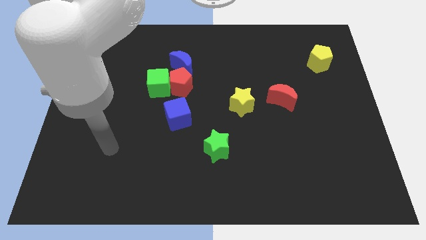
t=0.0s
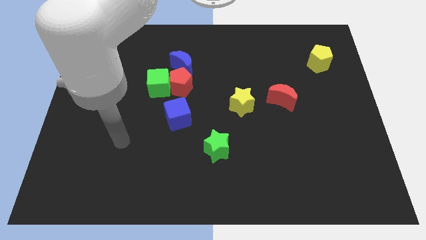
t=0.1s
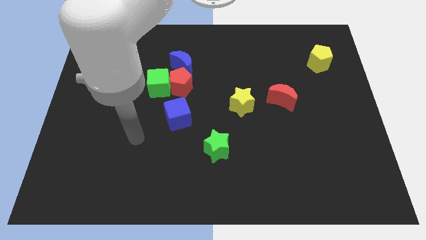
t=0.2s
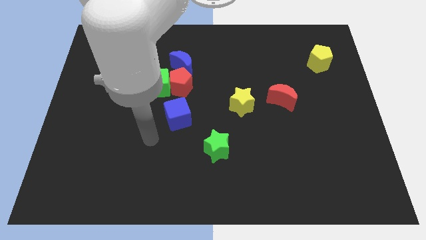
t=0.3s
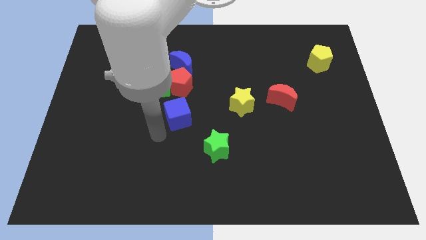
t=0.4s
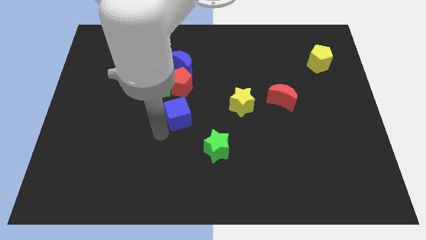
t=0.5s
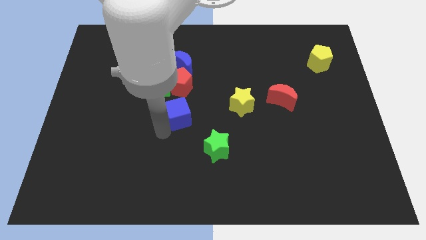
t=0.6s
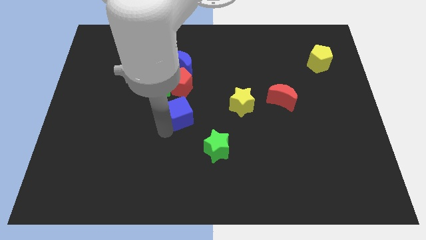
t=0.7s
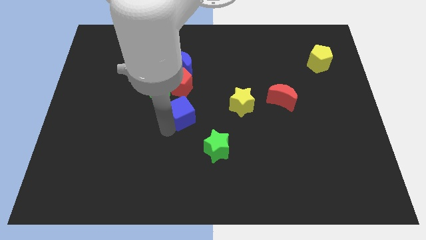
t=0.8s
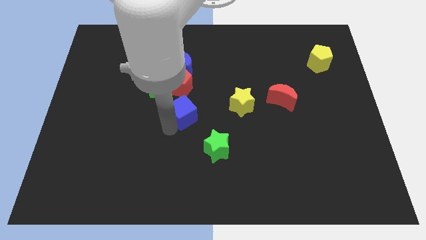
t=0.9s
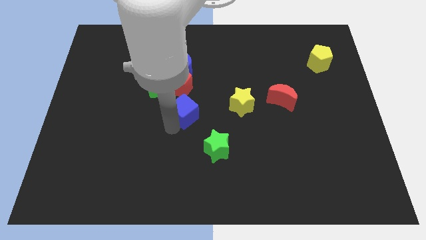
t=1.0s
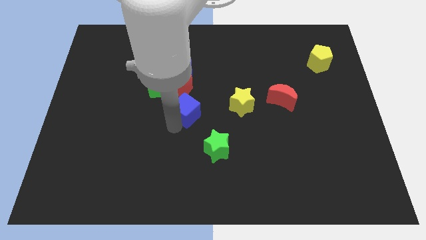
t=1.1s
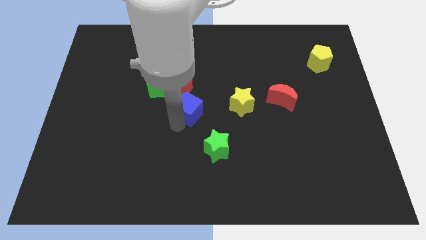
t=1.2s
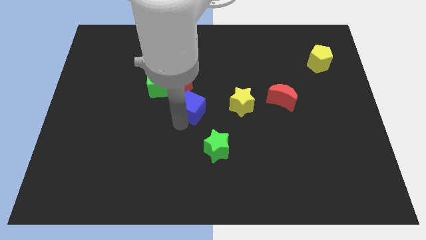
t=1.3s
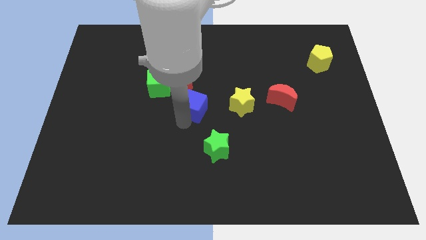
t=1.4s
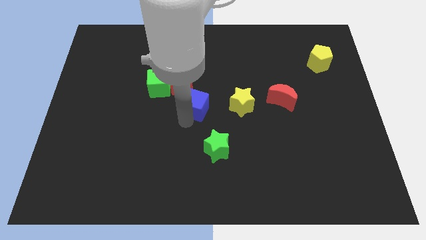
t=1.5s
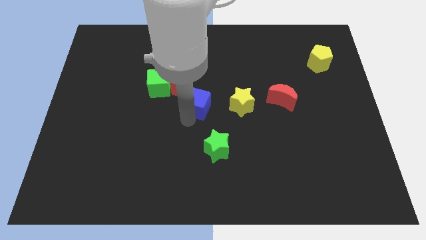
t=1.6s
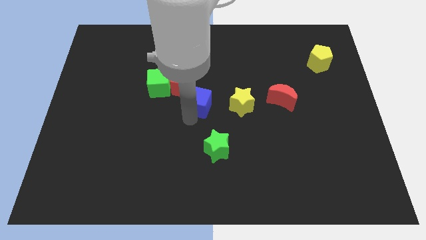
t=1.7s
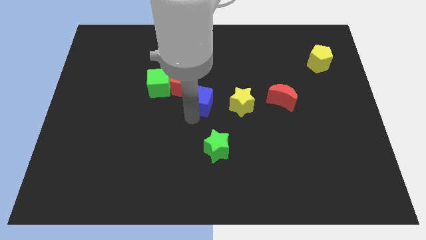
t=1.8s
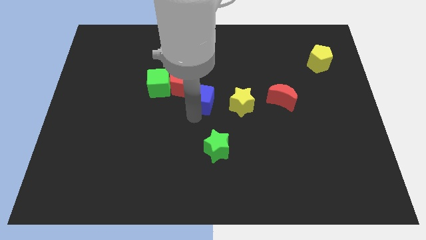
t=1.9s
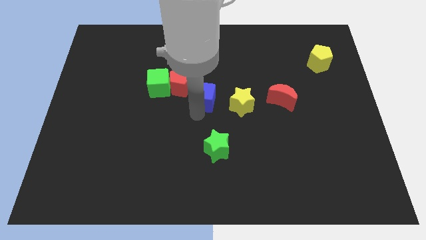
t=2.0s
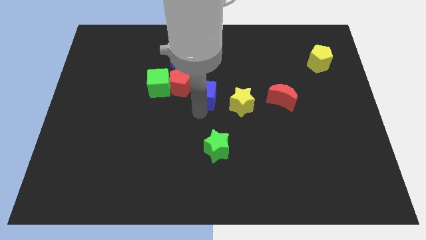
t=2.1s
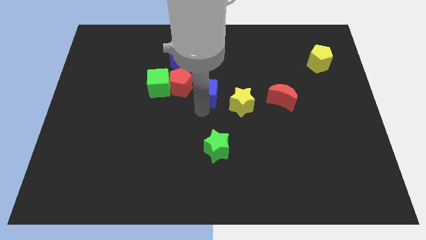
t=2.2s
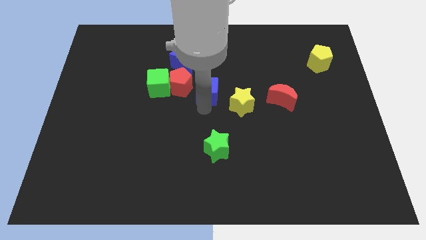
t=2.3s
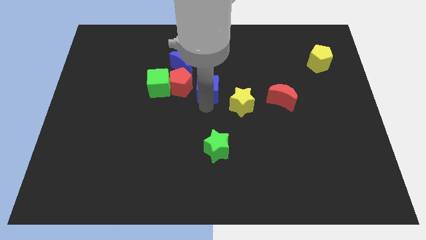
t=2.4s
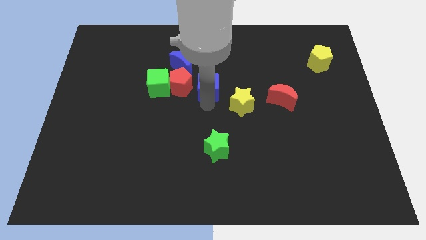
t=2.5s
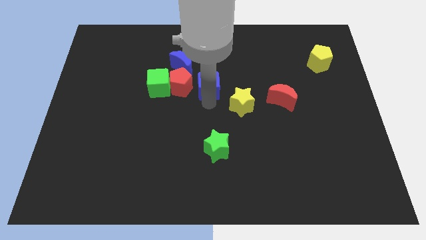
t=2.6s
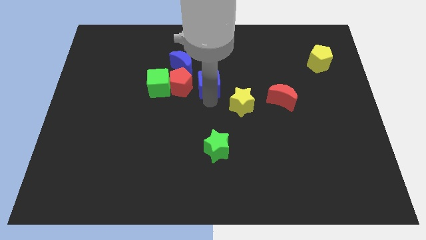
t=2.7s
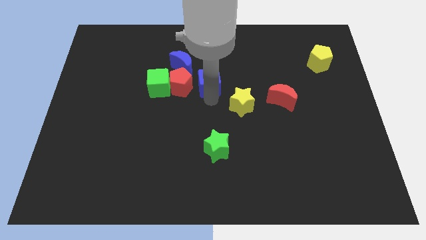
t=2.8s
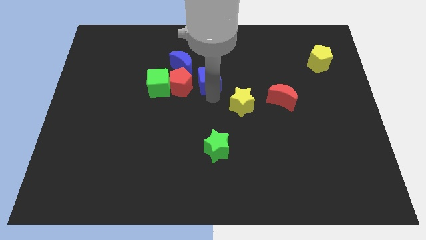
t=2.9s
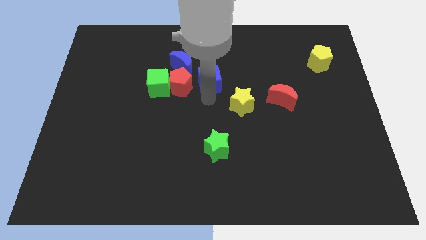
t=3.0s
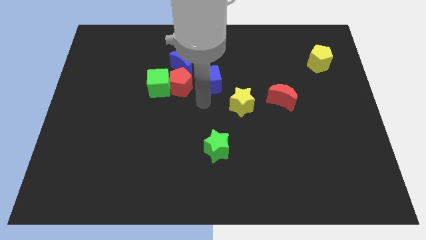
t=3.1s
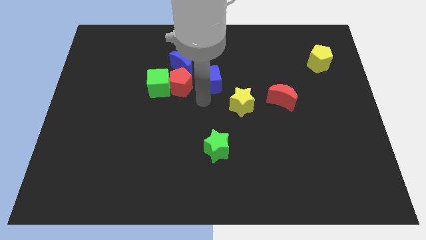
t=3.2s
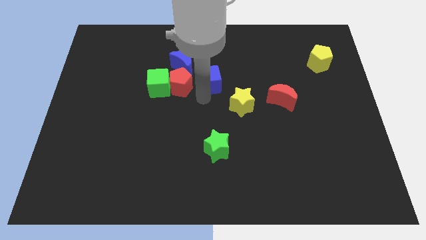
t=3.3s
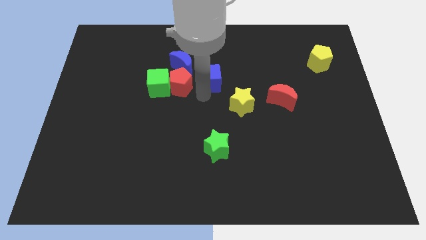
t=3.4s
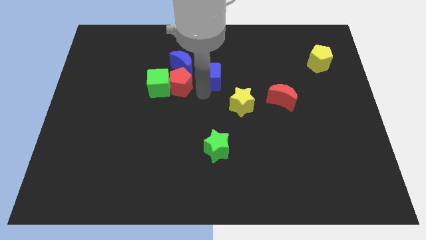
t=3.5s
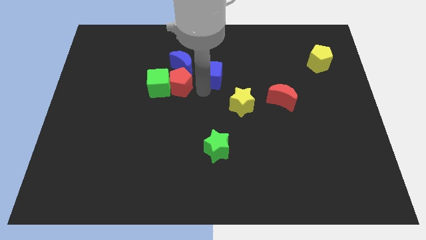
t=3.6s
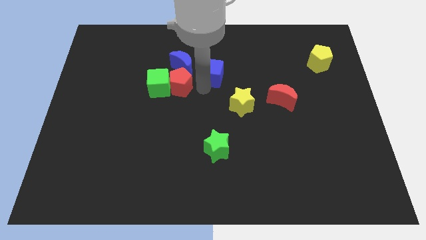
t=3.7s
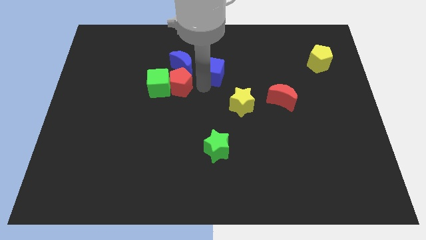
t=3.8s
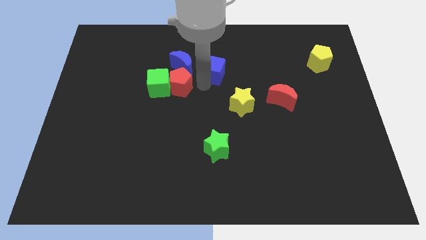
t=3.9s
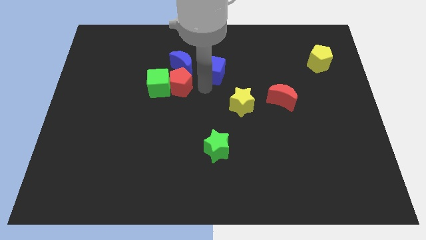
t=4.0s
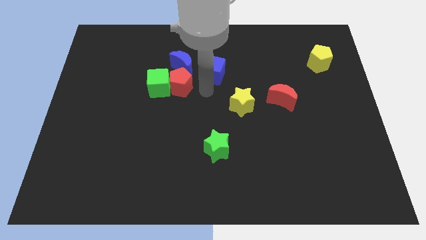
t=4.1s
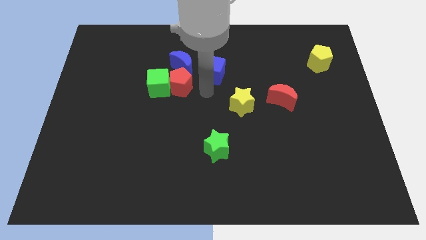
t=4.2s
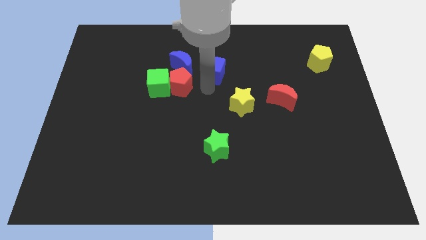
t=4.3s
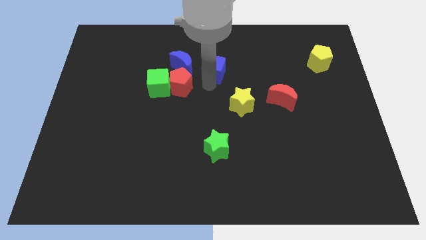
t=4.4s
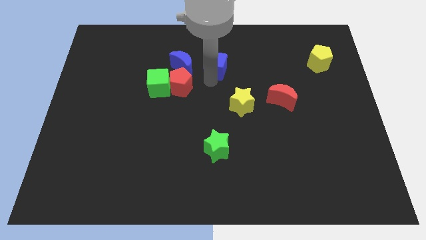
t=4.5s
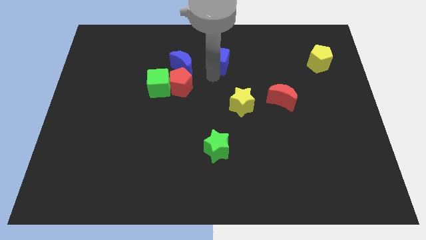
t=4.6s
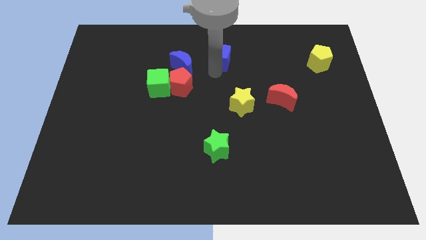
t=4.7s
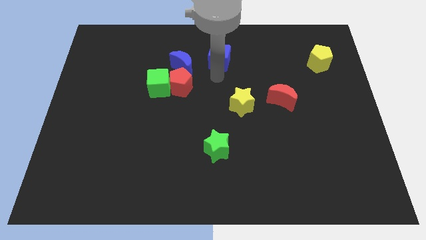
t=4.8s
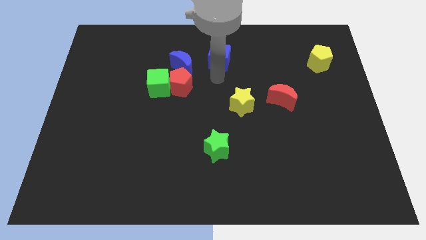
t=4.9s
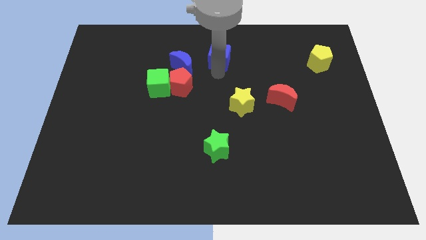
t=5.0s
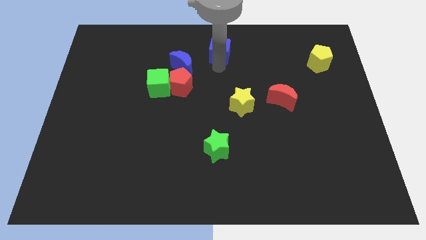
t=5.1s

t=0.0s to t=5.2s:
put the blue cube to the towards your base

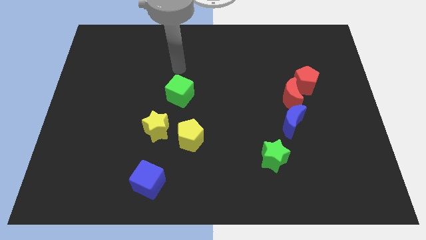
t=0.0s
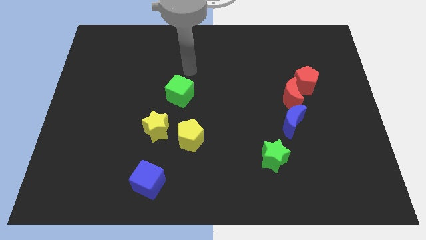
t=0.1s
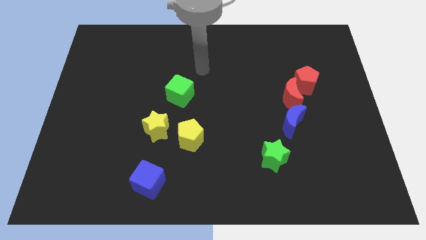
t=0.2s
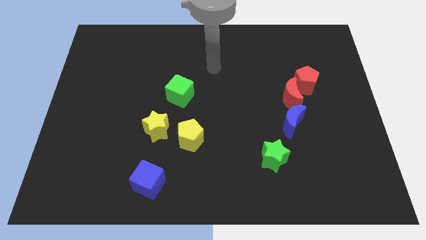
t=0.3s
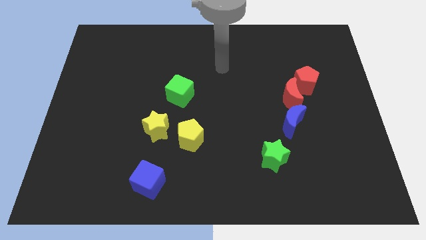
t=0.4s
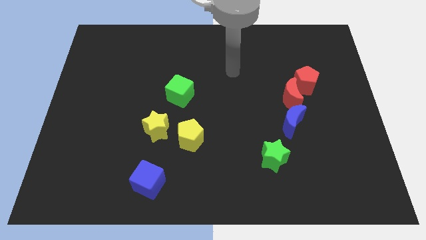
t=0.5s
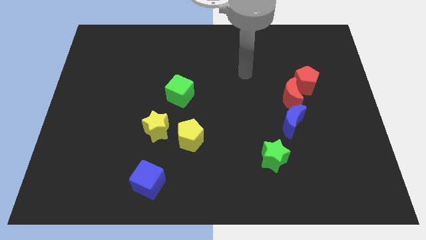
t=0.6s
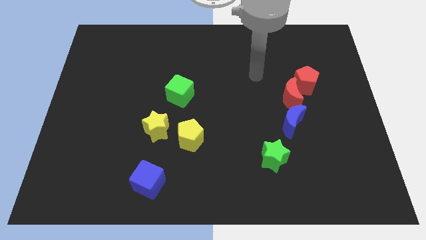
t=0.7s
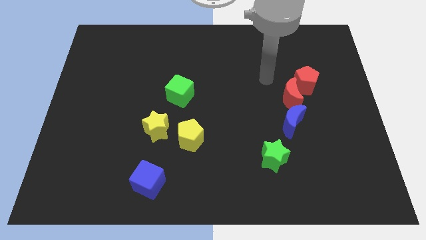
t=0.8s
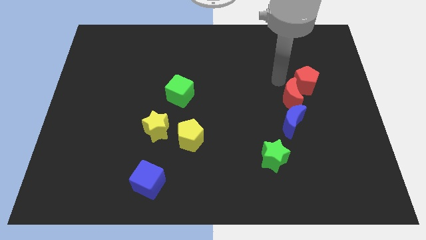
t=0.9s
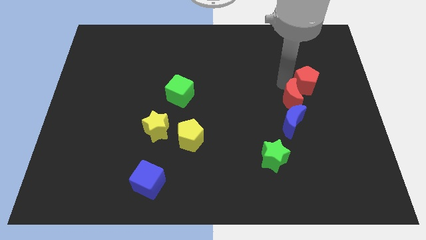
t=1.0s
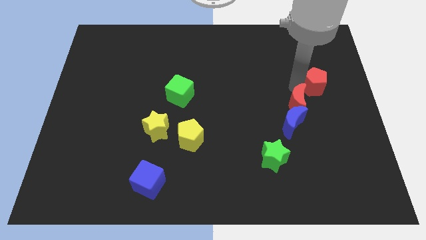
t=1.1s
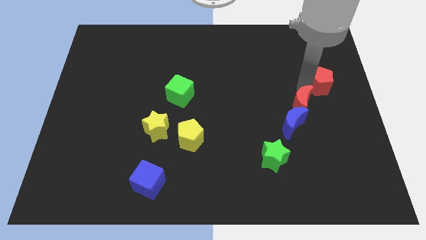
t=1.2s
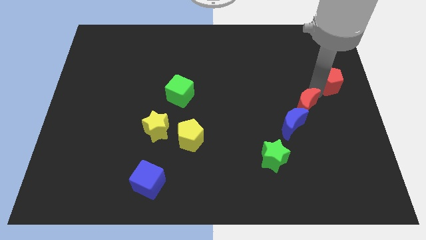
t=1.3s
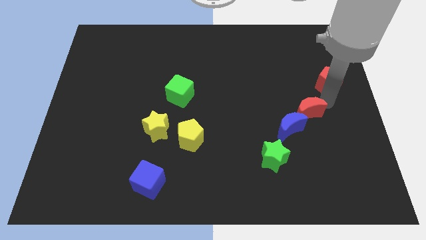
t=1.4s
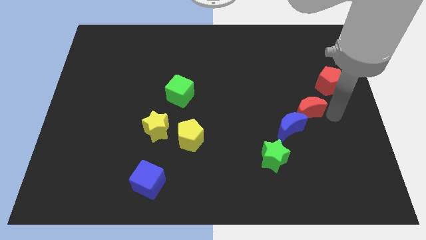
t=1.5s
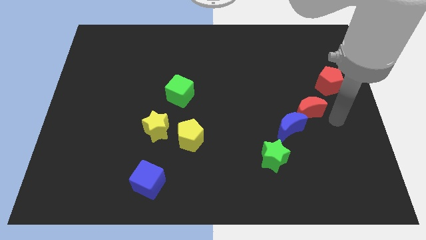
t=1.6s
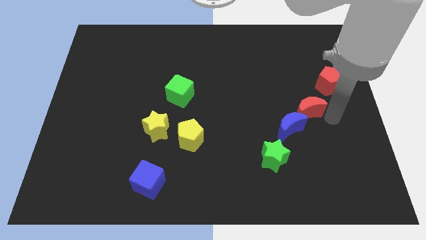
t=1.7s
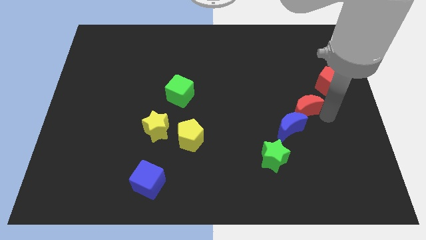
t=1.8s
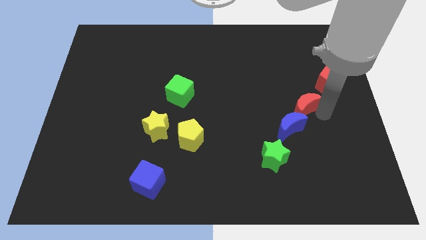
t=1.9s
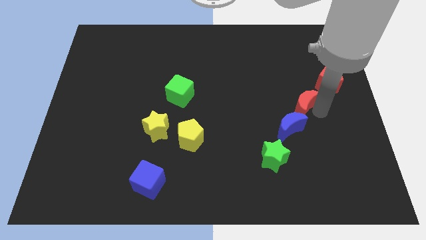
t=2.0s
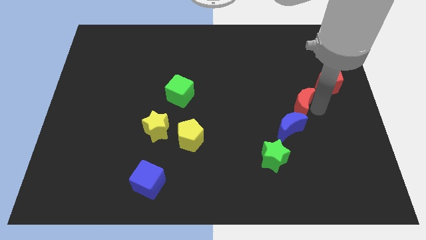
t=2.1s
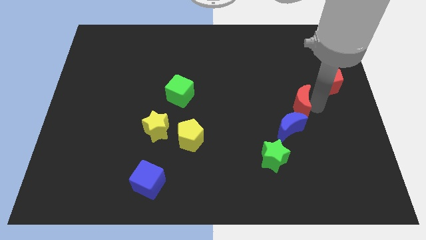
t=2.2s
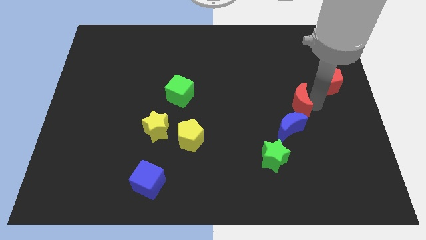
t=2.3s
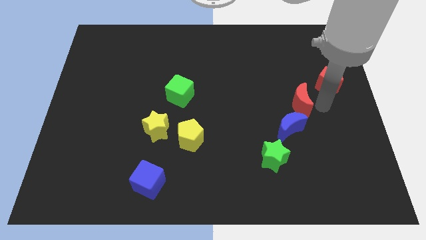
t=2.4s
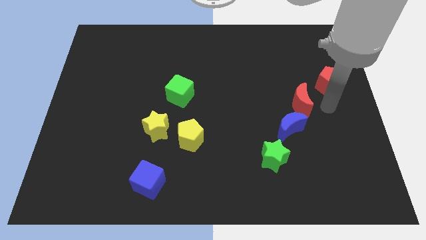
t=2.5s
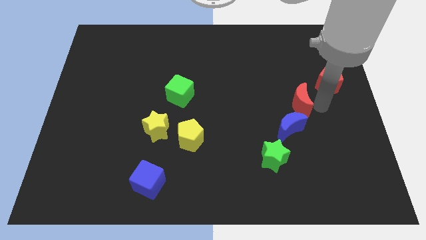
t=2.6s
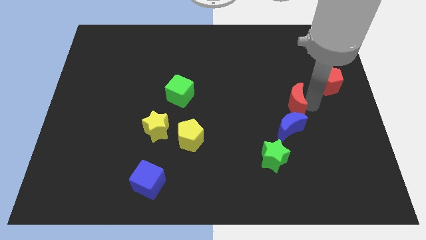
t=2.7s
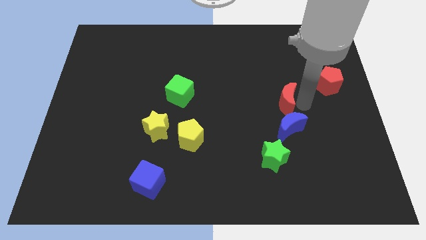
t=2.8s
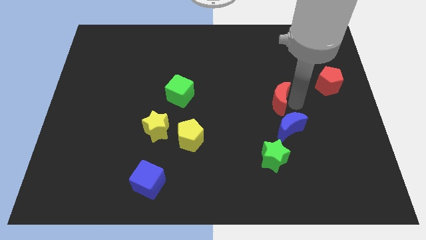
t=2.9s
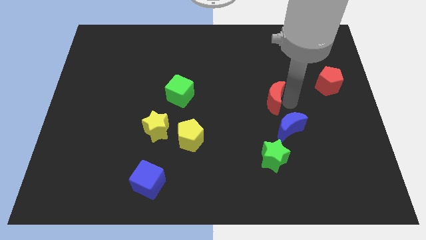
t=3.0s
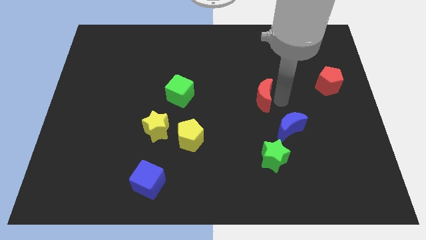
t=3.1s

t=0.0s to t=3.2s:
slide the red moon to the middle of the board
